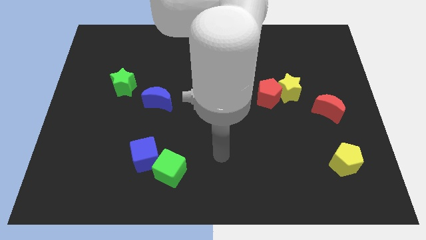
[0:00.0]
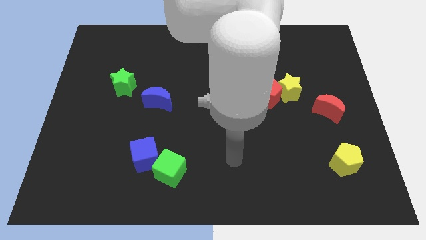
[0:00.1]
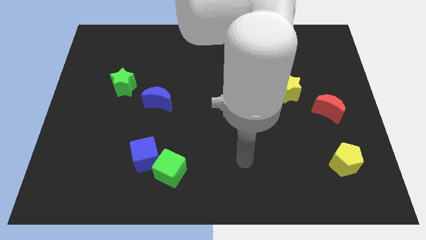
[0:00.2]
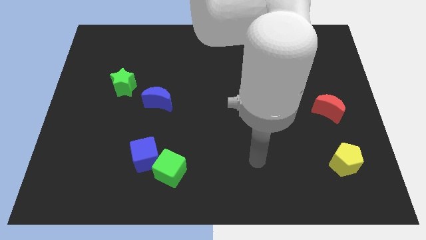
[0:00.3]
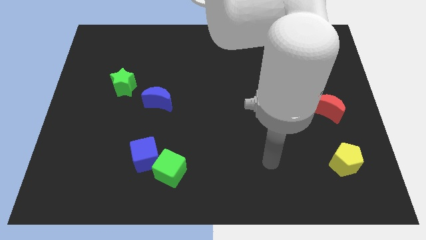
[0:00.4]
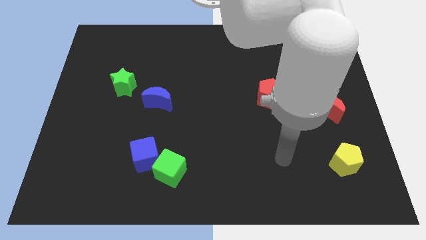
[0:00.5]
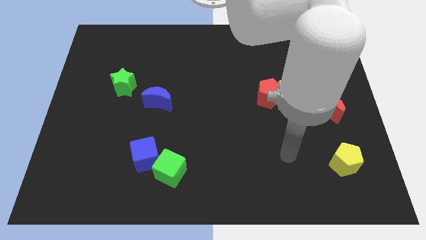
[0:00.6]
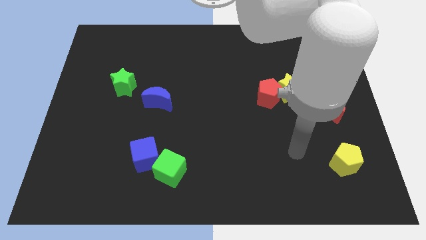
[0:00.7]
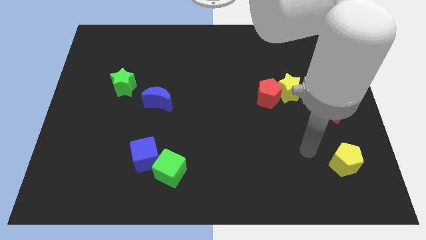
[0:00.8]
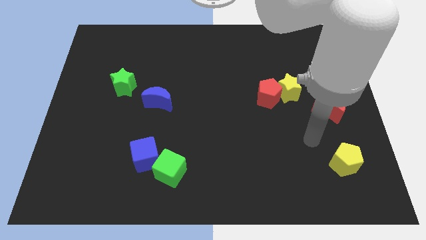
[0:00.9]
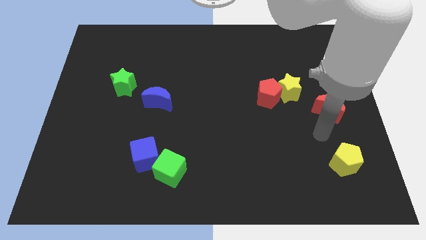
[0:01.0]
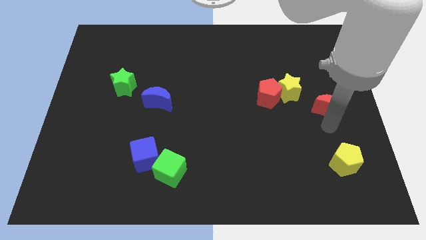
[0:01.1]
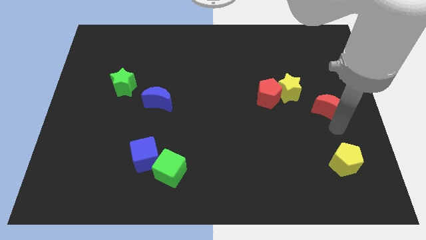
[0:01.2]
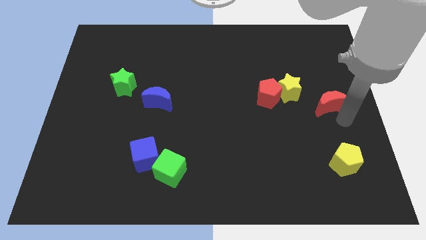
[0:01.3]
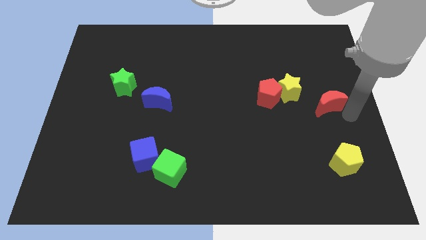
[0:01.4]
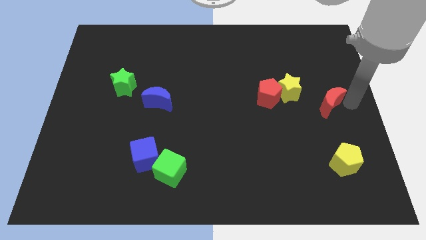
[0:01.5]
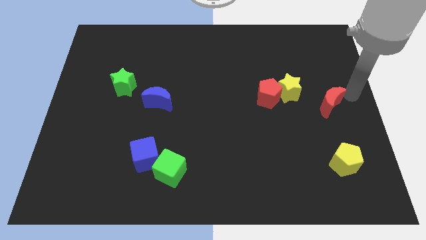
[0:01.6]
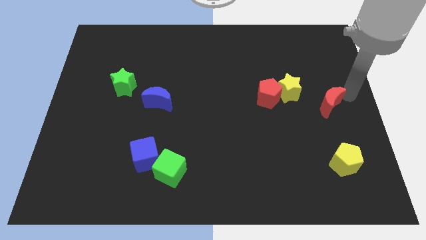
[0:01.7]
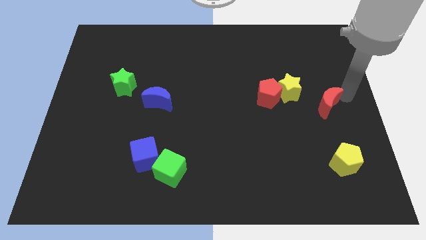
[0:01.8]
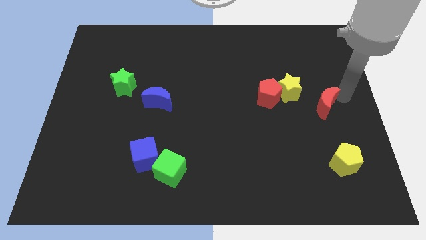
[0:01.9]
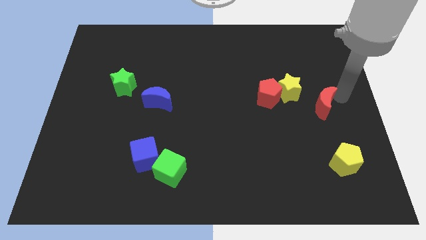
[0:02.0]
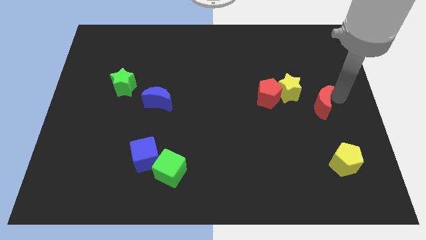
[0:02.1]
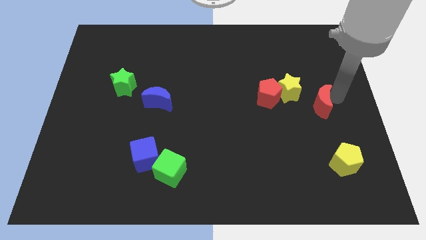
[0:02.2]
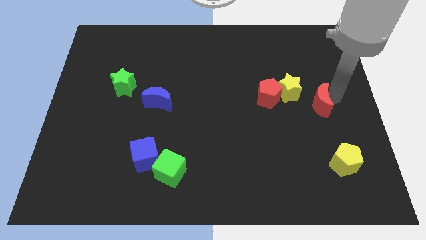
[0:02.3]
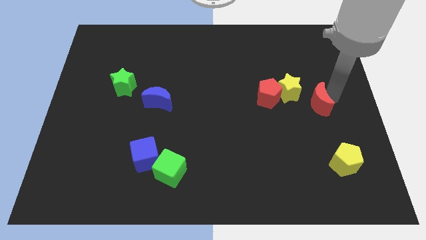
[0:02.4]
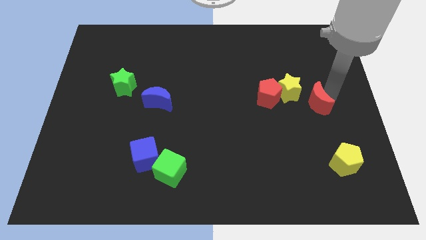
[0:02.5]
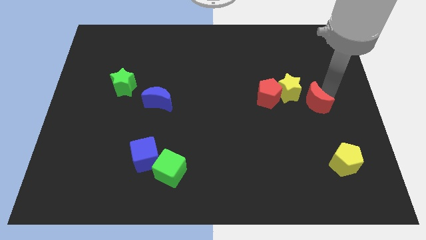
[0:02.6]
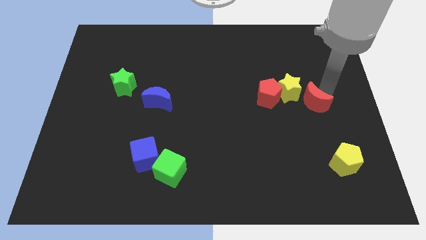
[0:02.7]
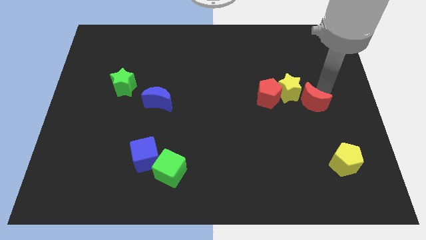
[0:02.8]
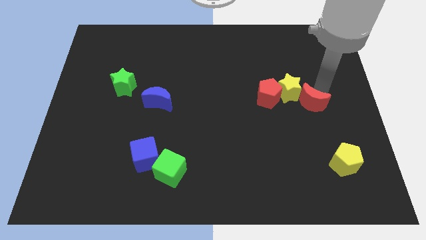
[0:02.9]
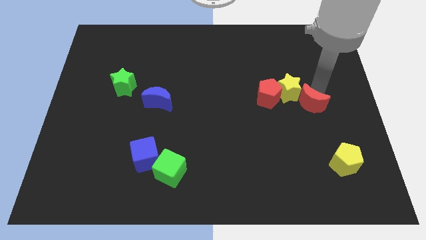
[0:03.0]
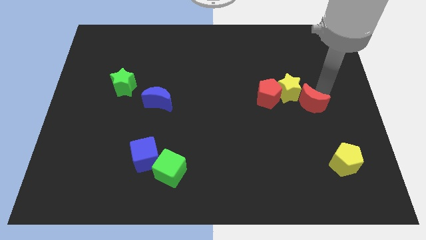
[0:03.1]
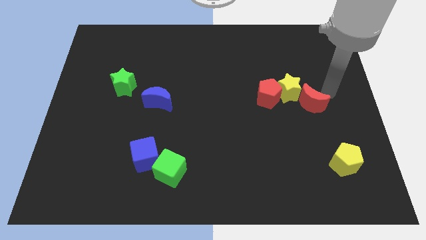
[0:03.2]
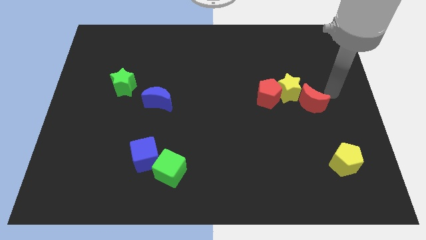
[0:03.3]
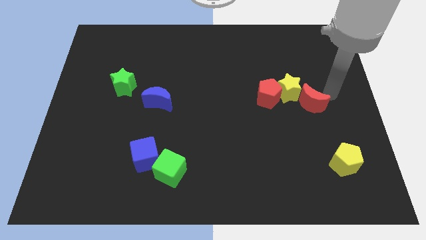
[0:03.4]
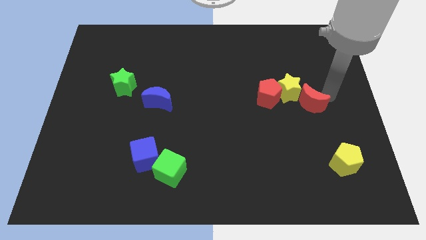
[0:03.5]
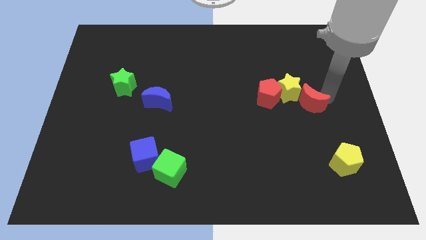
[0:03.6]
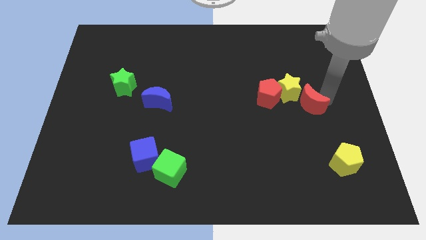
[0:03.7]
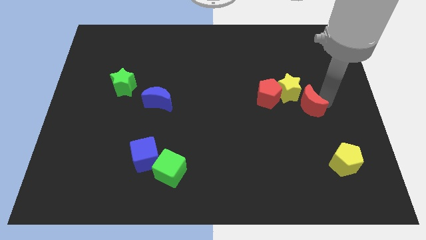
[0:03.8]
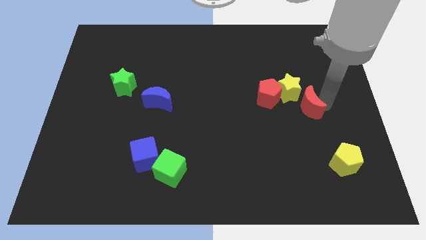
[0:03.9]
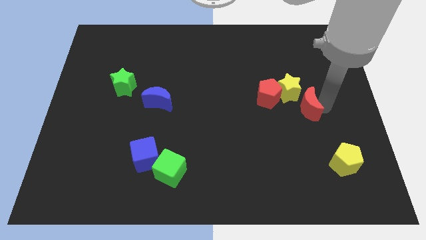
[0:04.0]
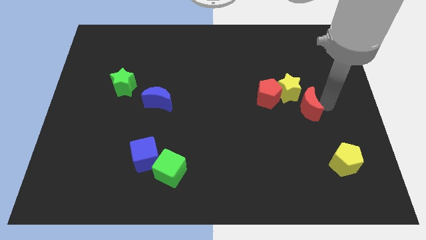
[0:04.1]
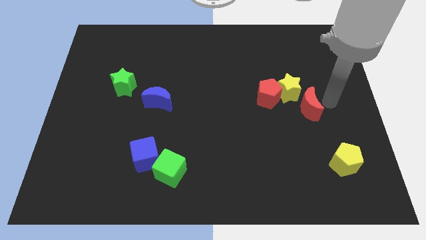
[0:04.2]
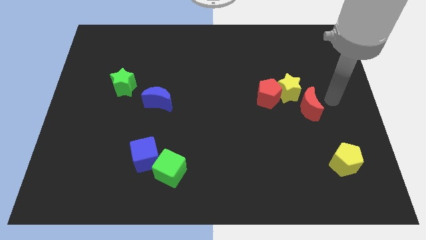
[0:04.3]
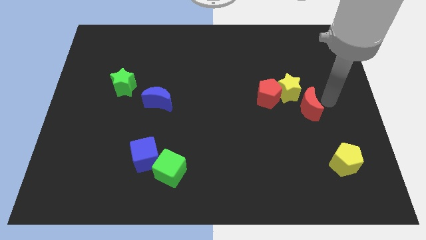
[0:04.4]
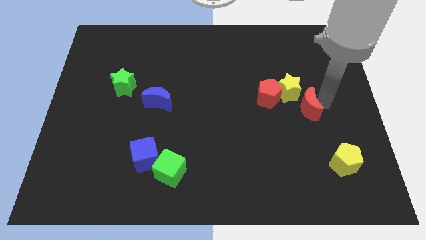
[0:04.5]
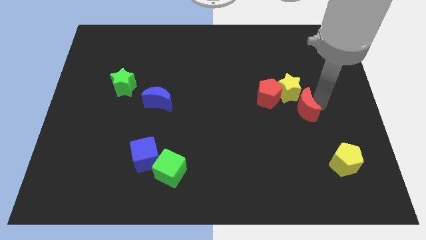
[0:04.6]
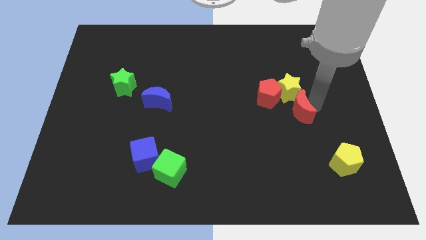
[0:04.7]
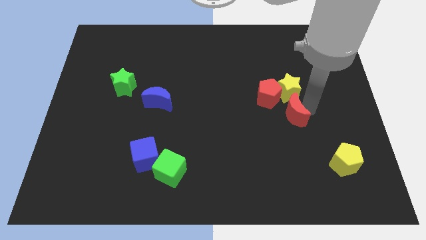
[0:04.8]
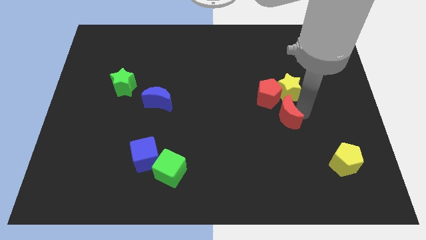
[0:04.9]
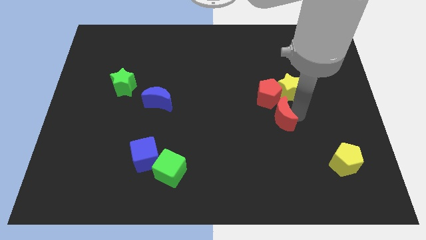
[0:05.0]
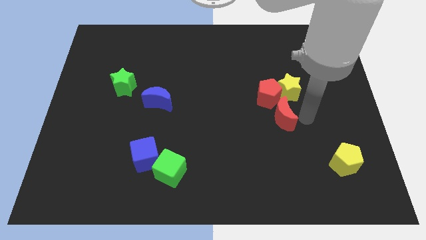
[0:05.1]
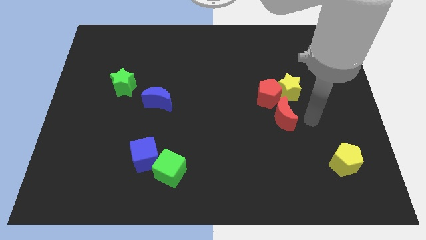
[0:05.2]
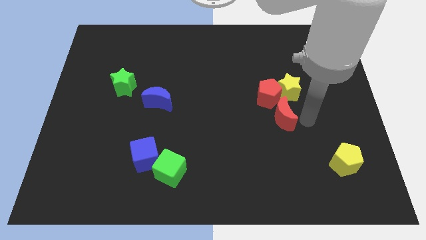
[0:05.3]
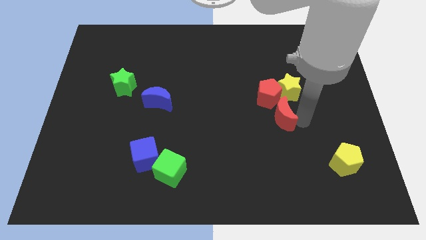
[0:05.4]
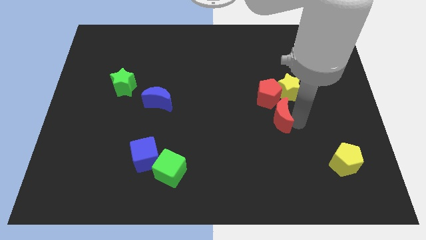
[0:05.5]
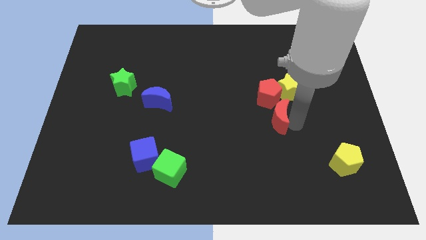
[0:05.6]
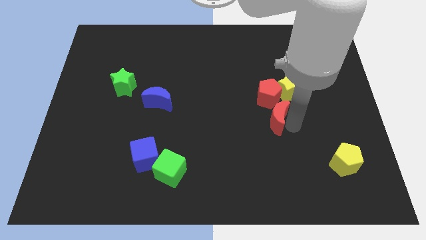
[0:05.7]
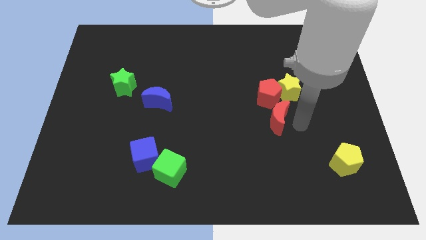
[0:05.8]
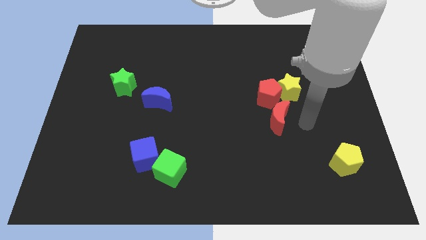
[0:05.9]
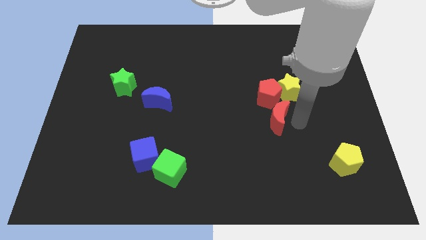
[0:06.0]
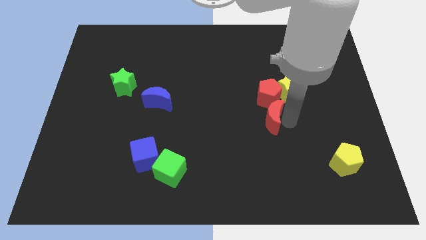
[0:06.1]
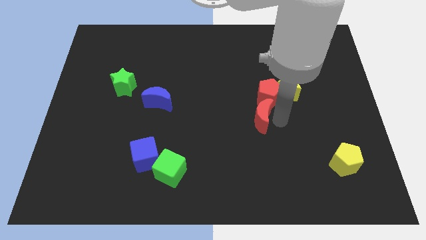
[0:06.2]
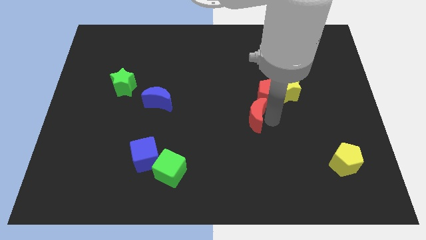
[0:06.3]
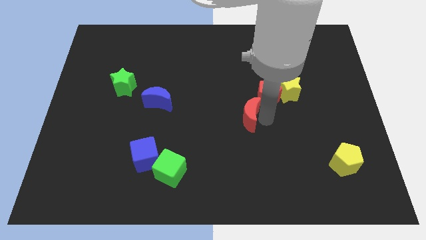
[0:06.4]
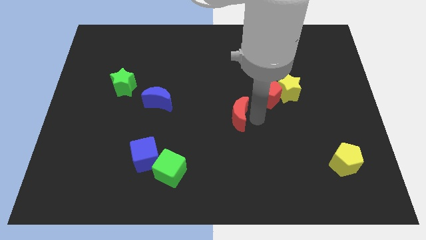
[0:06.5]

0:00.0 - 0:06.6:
push the red moon to the left

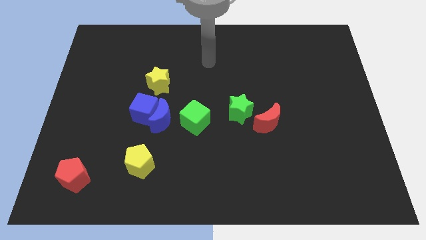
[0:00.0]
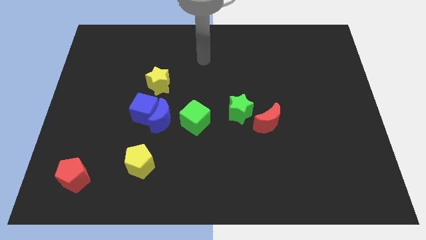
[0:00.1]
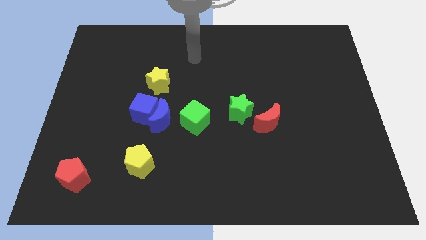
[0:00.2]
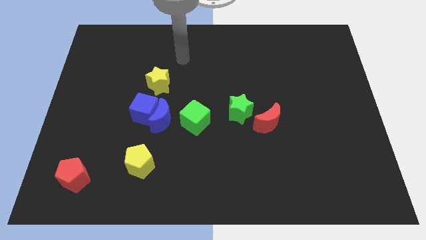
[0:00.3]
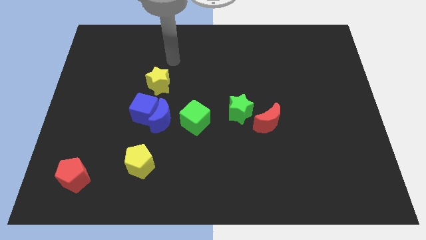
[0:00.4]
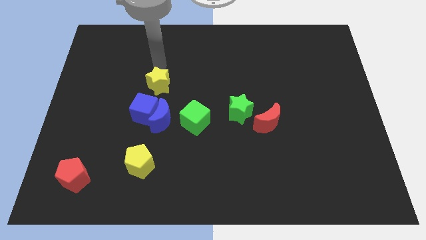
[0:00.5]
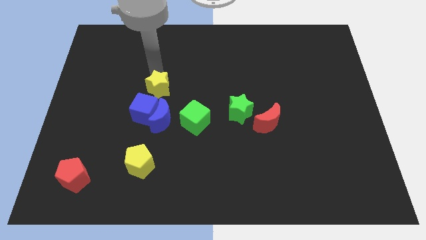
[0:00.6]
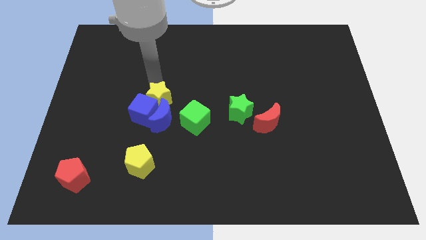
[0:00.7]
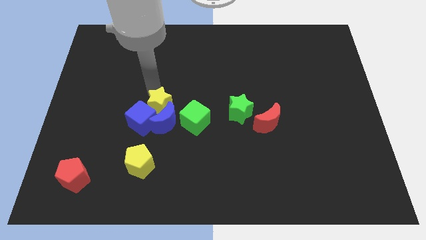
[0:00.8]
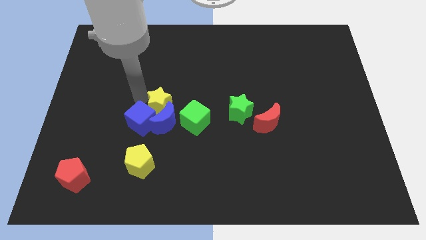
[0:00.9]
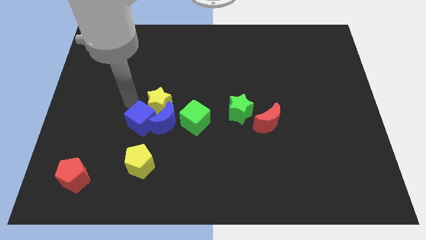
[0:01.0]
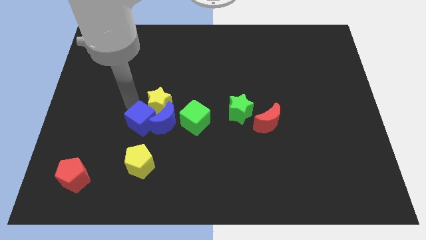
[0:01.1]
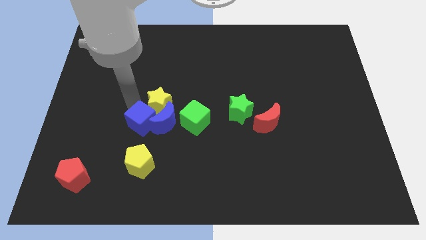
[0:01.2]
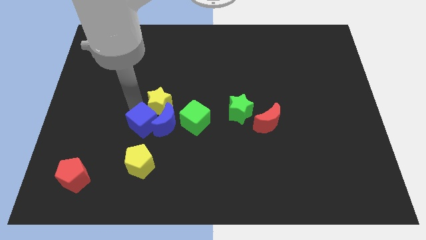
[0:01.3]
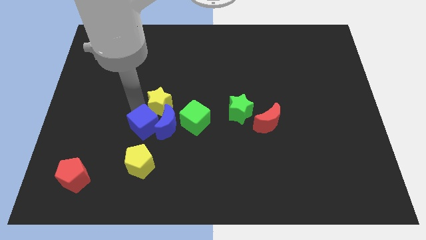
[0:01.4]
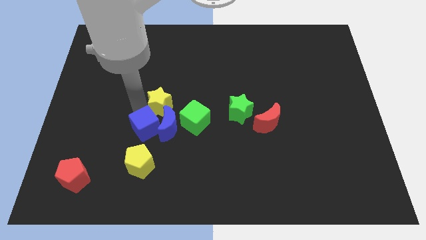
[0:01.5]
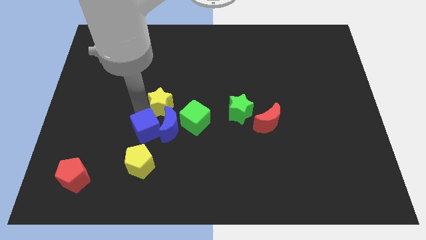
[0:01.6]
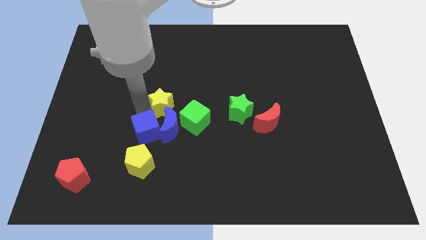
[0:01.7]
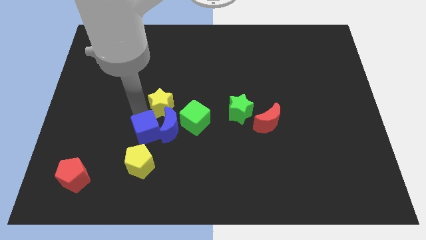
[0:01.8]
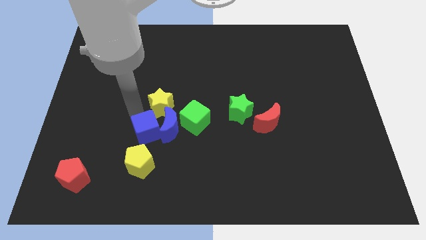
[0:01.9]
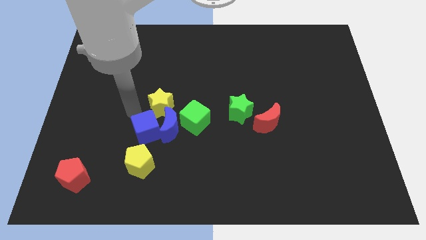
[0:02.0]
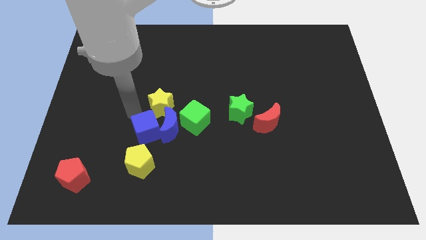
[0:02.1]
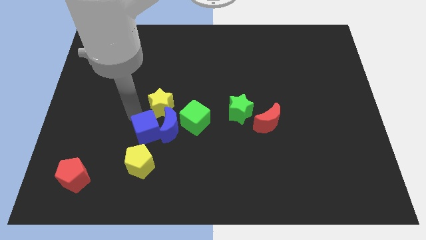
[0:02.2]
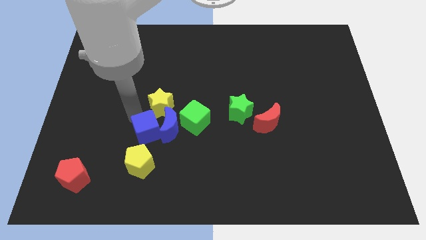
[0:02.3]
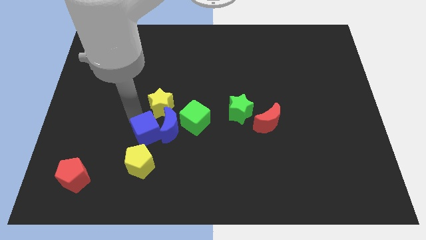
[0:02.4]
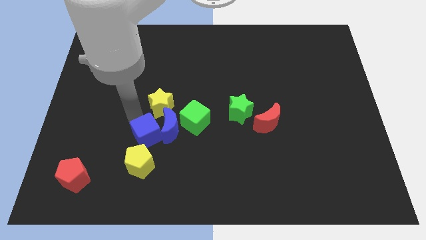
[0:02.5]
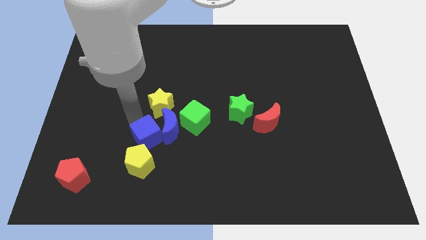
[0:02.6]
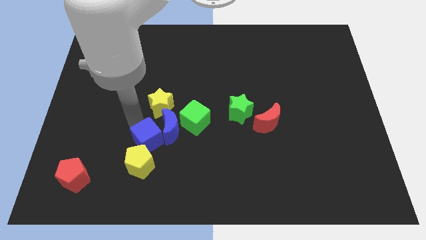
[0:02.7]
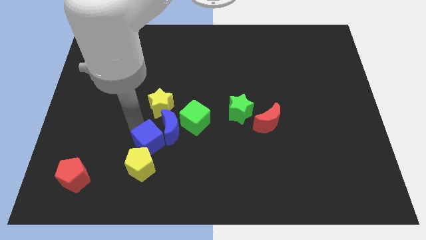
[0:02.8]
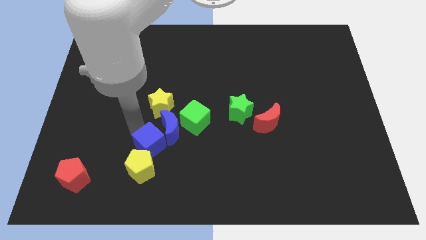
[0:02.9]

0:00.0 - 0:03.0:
slide the blue cube downwards and to the right diagonally somewhat
